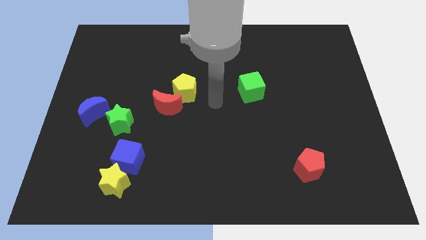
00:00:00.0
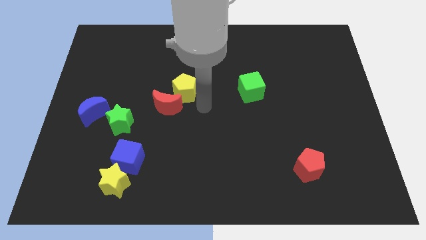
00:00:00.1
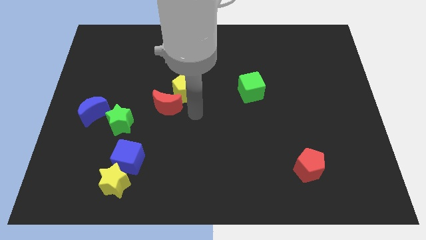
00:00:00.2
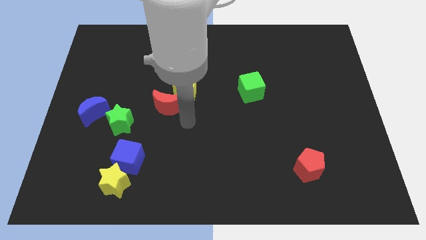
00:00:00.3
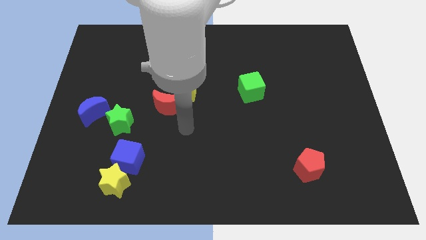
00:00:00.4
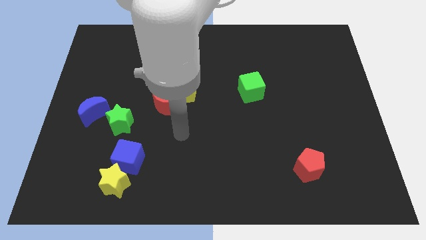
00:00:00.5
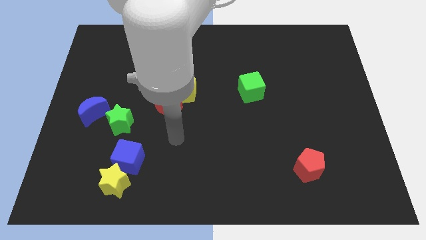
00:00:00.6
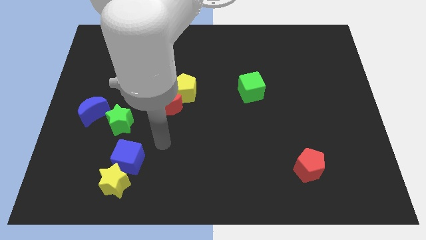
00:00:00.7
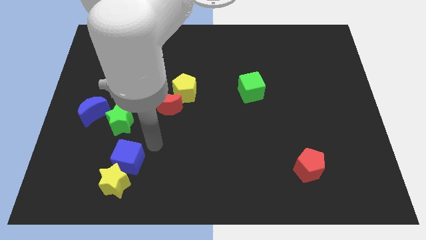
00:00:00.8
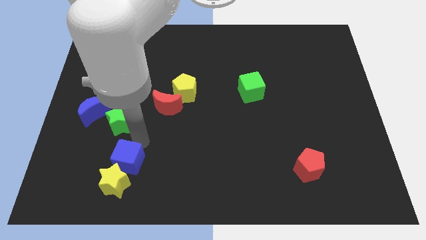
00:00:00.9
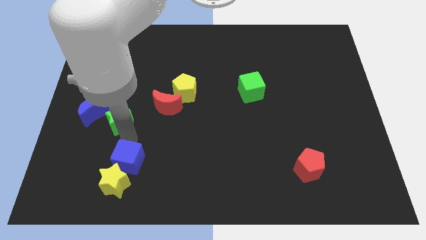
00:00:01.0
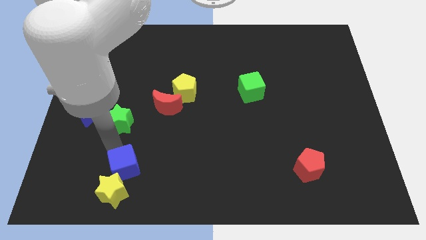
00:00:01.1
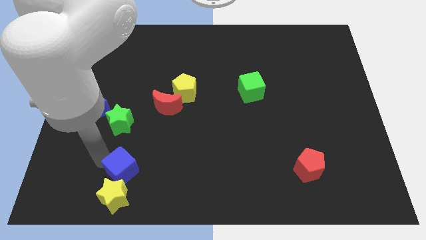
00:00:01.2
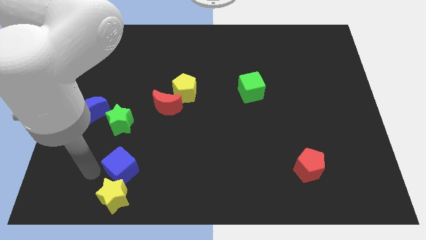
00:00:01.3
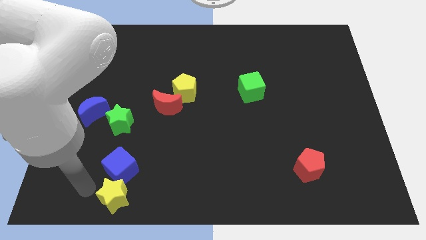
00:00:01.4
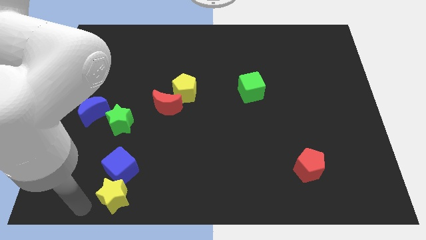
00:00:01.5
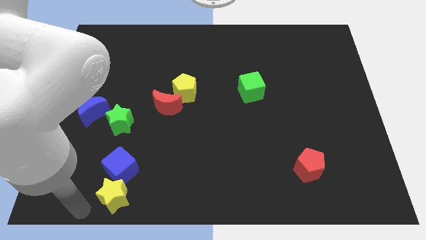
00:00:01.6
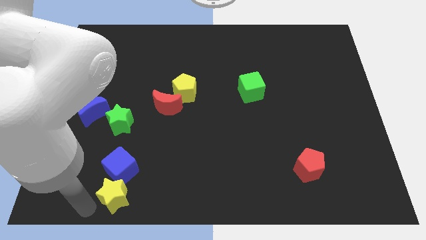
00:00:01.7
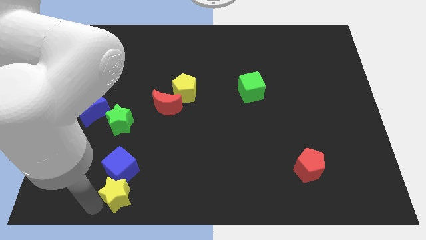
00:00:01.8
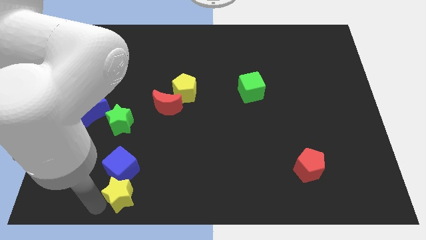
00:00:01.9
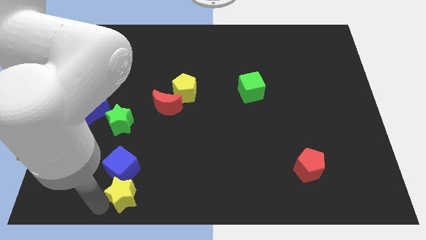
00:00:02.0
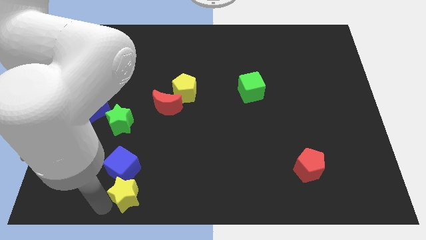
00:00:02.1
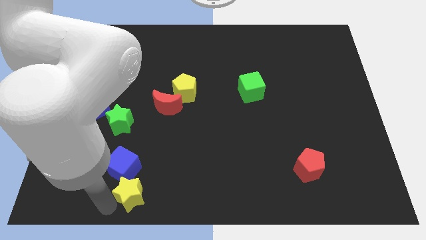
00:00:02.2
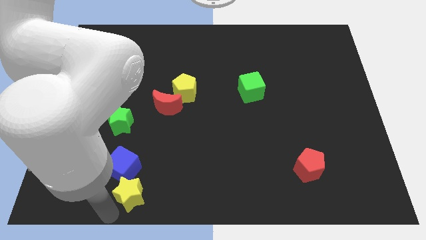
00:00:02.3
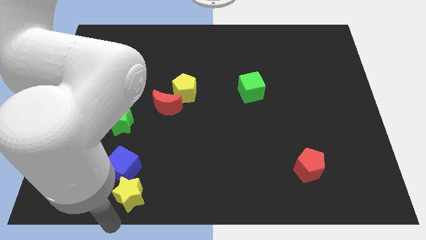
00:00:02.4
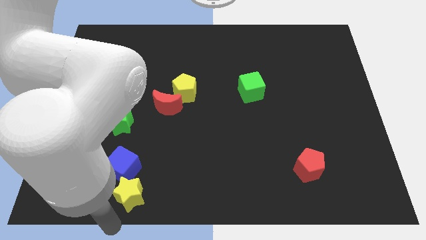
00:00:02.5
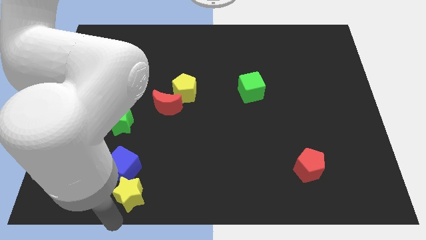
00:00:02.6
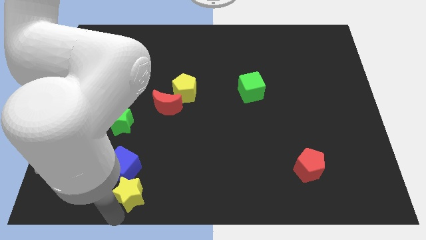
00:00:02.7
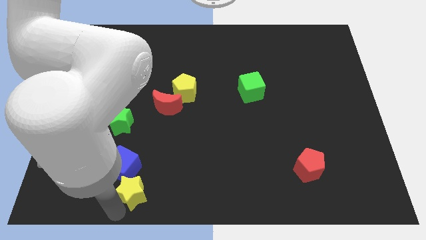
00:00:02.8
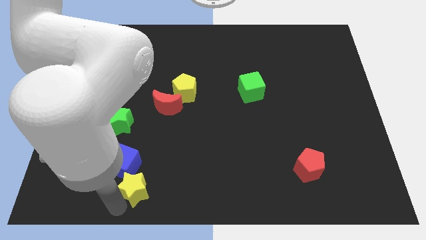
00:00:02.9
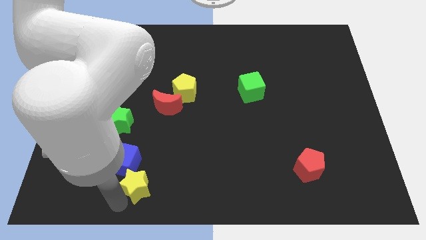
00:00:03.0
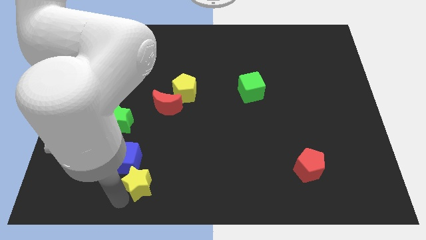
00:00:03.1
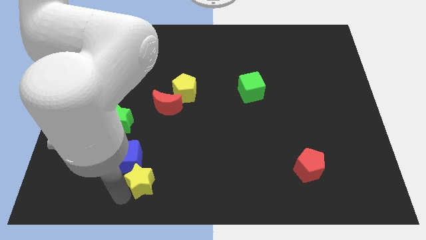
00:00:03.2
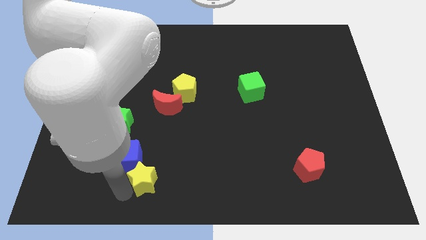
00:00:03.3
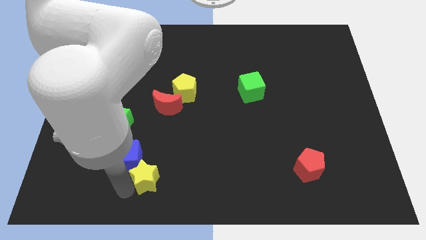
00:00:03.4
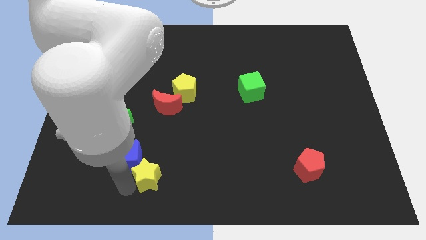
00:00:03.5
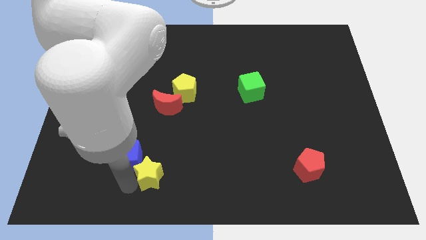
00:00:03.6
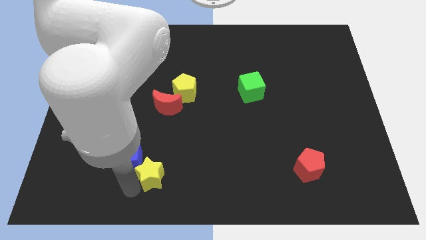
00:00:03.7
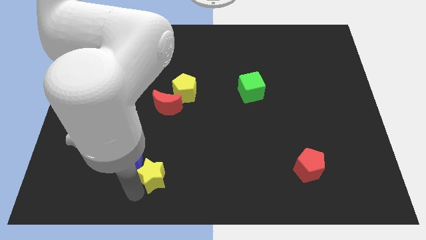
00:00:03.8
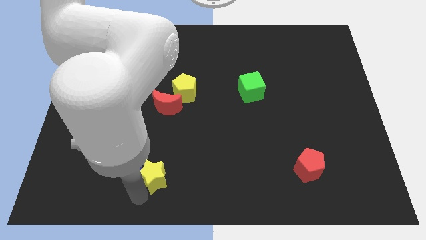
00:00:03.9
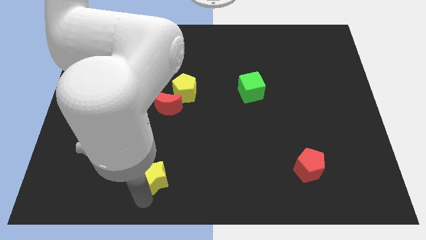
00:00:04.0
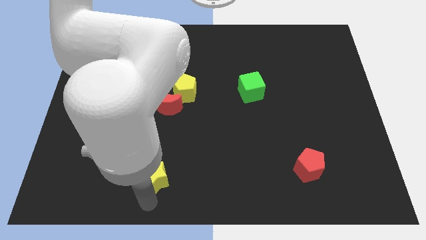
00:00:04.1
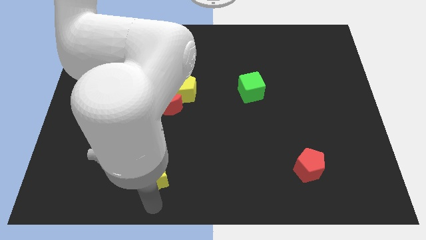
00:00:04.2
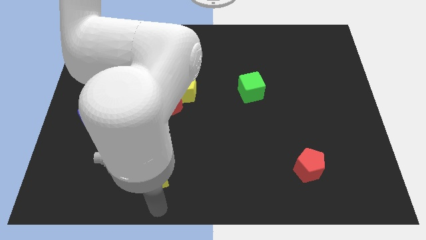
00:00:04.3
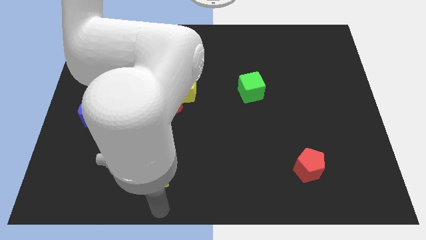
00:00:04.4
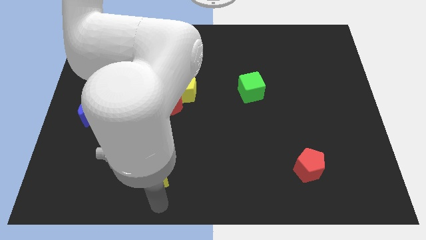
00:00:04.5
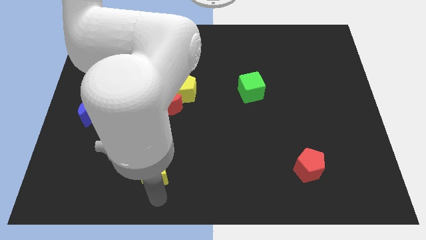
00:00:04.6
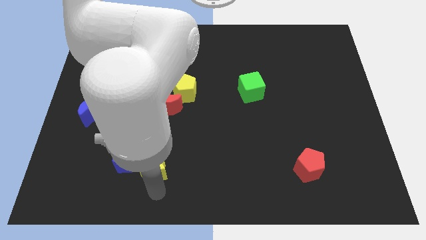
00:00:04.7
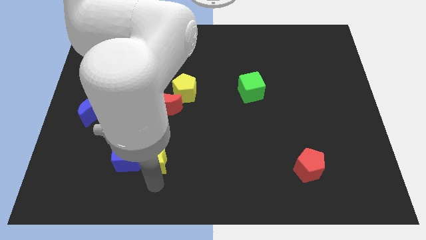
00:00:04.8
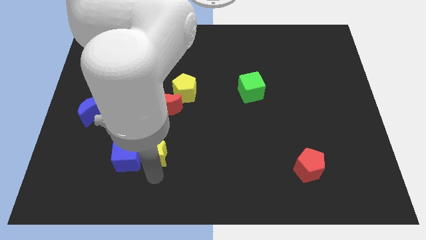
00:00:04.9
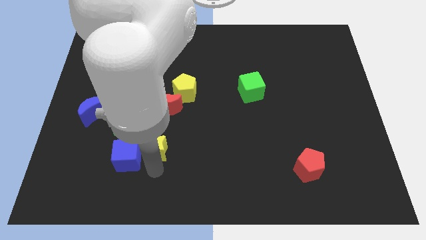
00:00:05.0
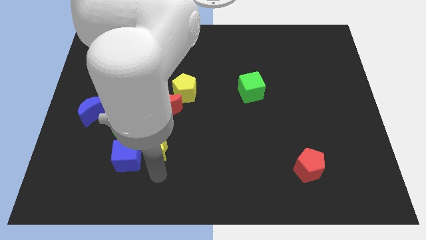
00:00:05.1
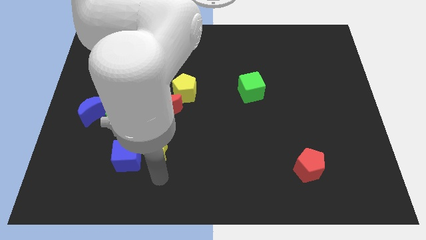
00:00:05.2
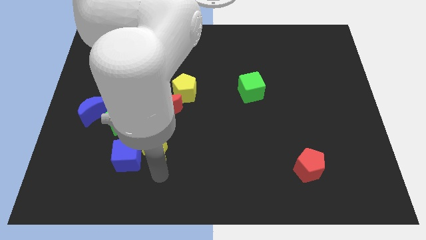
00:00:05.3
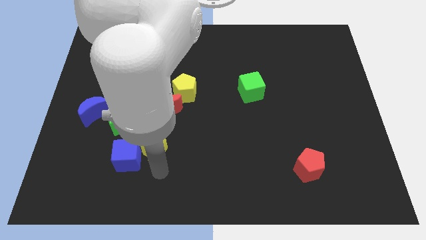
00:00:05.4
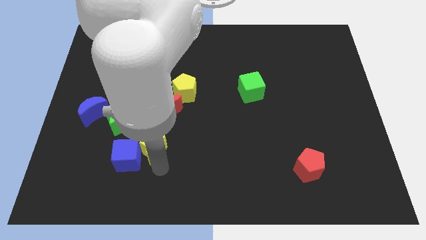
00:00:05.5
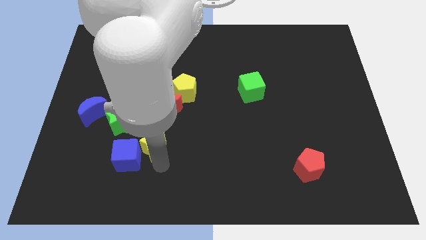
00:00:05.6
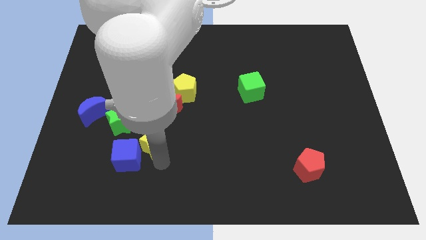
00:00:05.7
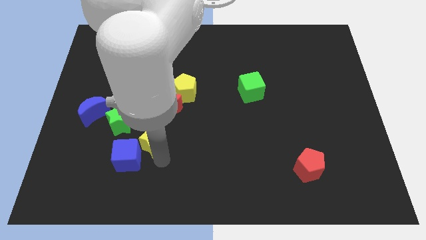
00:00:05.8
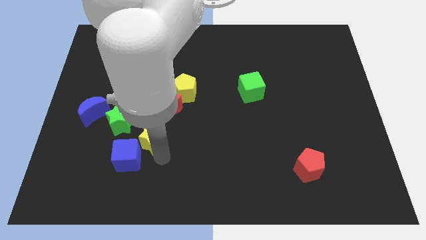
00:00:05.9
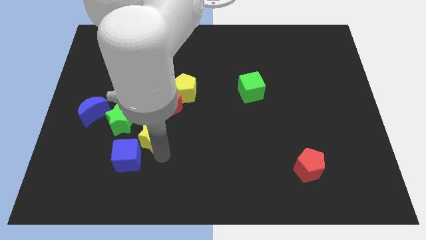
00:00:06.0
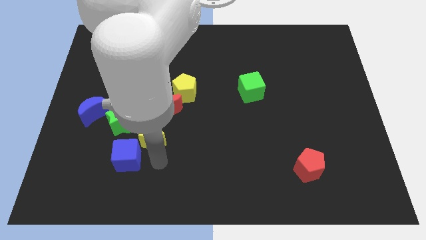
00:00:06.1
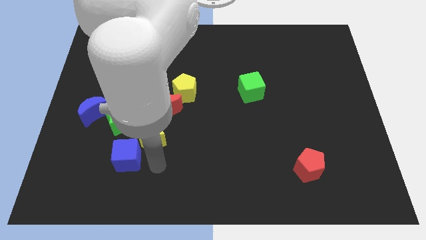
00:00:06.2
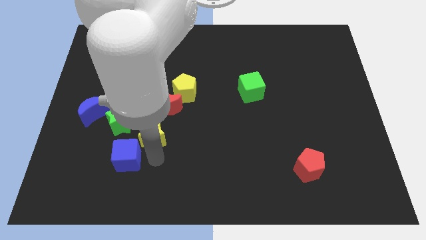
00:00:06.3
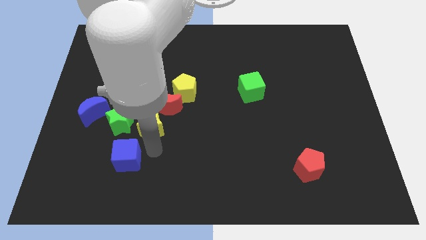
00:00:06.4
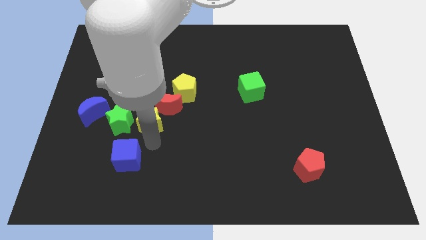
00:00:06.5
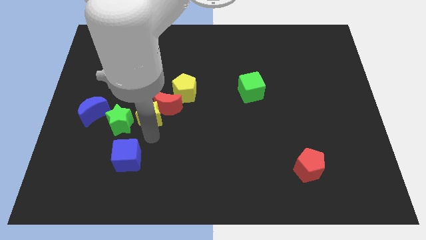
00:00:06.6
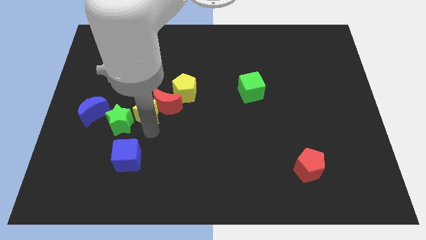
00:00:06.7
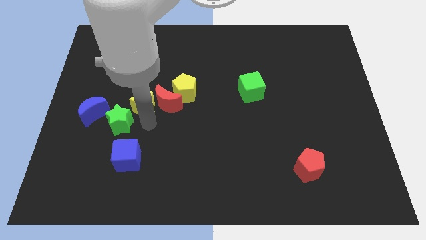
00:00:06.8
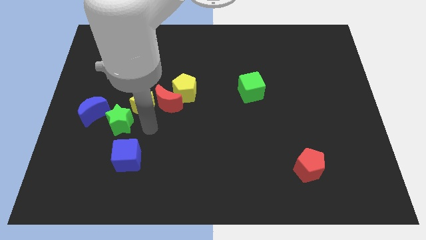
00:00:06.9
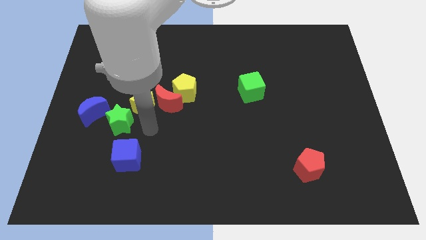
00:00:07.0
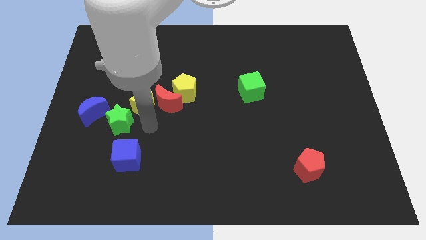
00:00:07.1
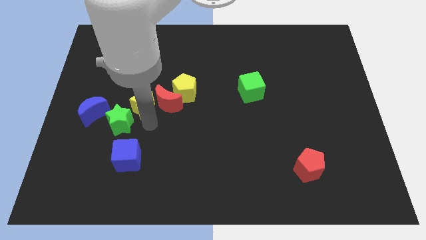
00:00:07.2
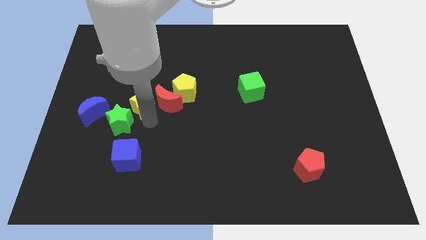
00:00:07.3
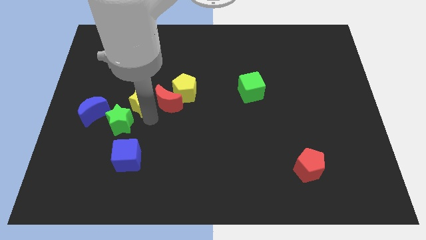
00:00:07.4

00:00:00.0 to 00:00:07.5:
push the yellow star upwards

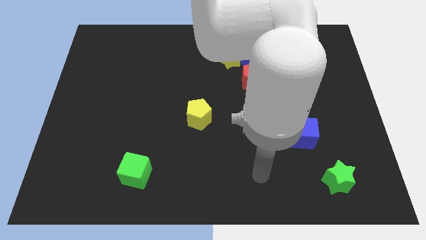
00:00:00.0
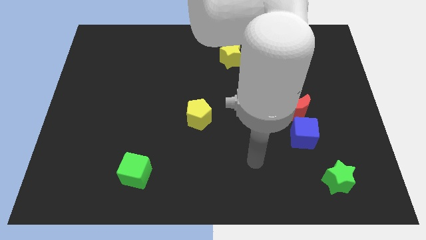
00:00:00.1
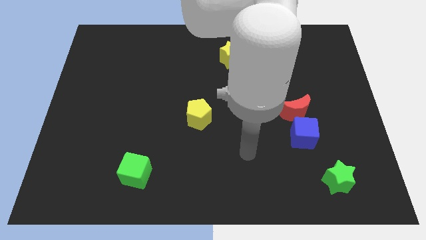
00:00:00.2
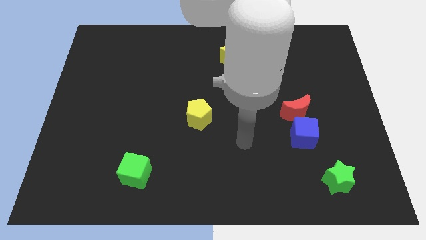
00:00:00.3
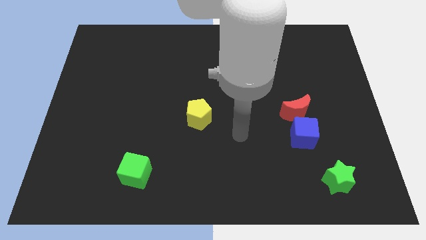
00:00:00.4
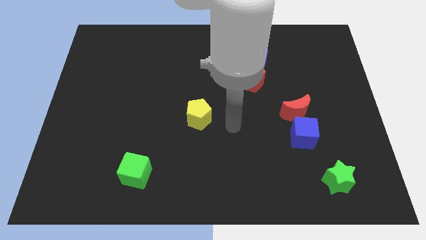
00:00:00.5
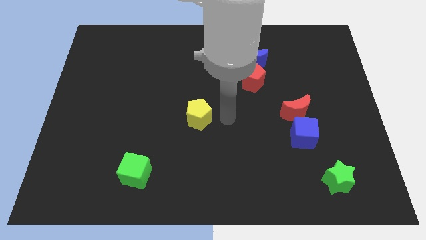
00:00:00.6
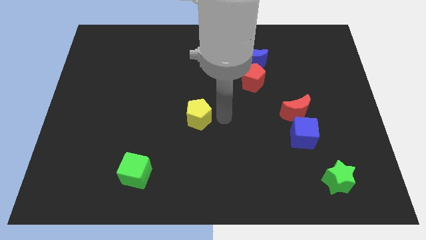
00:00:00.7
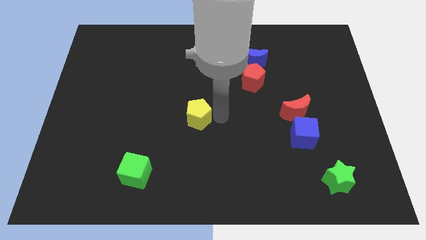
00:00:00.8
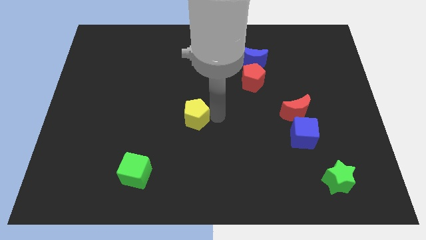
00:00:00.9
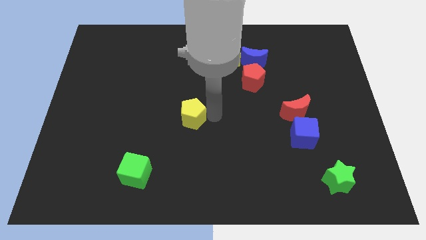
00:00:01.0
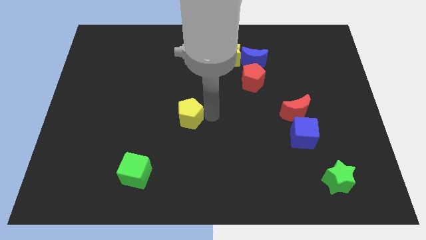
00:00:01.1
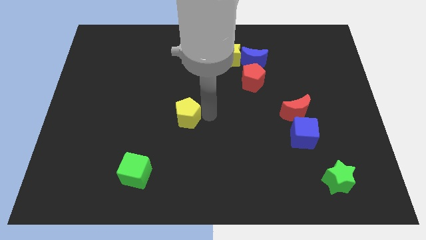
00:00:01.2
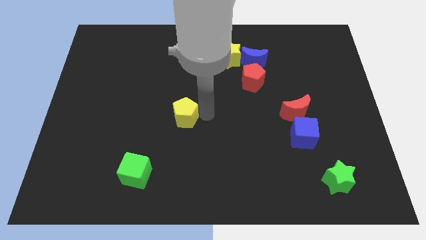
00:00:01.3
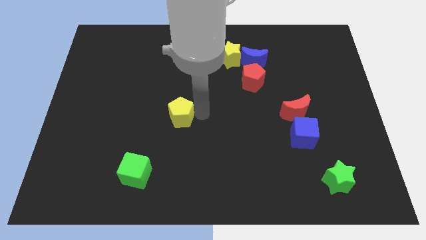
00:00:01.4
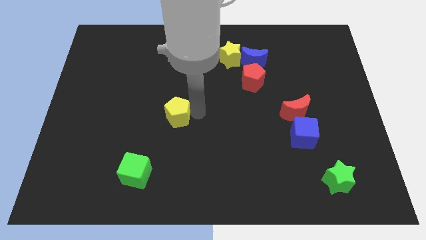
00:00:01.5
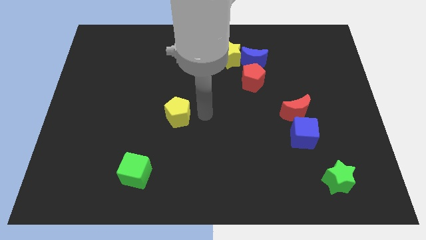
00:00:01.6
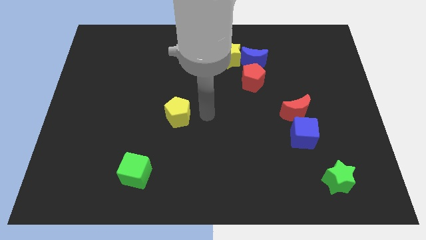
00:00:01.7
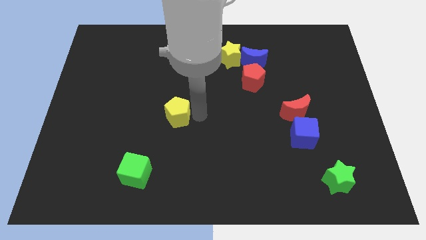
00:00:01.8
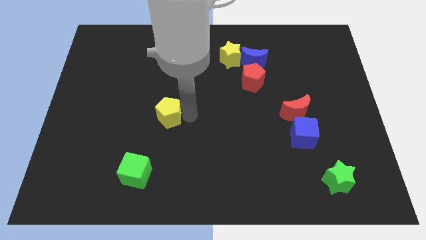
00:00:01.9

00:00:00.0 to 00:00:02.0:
push the yellow pentagon to the left a bit
